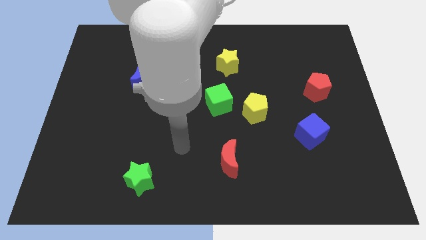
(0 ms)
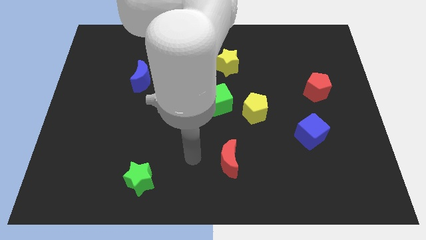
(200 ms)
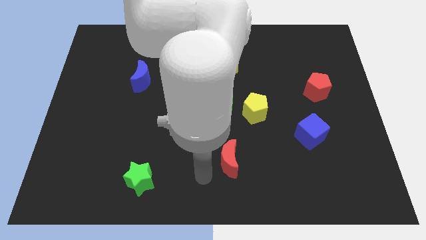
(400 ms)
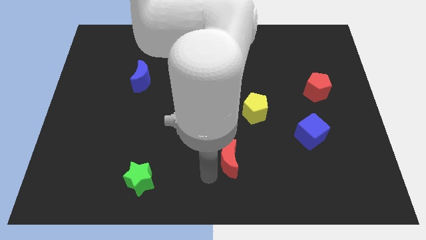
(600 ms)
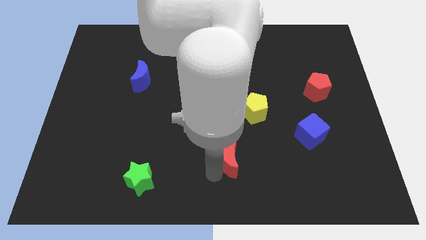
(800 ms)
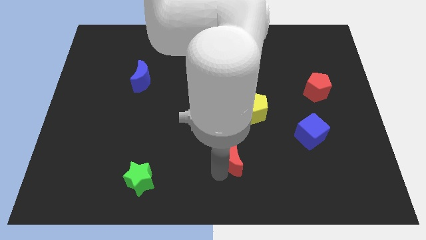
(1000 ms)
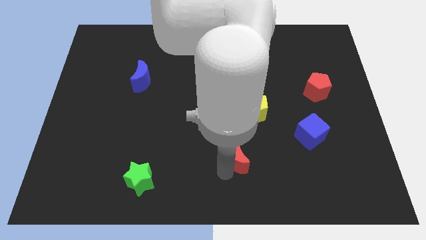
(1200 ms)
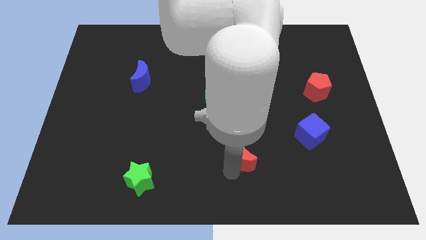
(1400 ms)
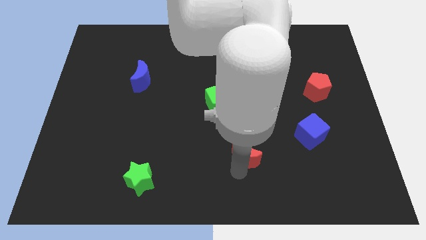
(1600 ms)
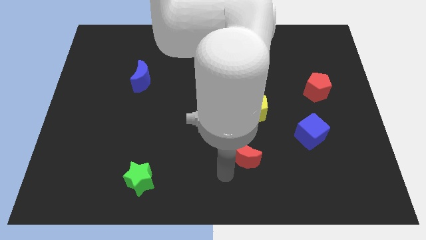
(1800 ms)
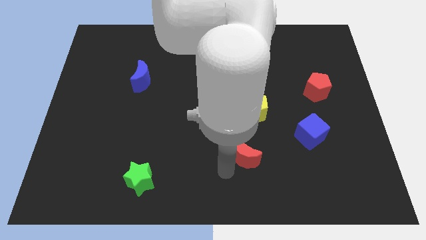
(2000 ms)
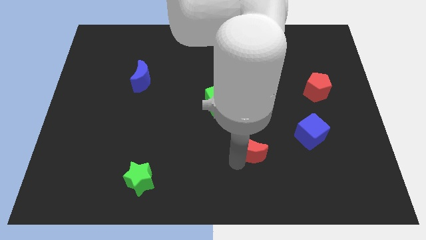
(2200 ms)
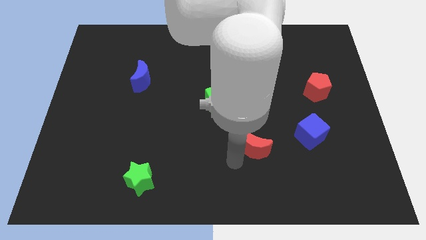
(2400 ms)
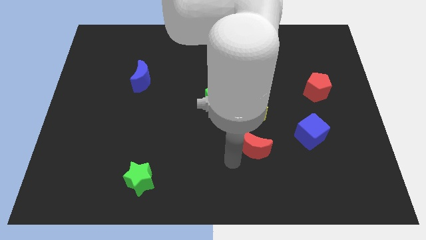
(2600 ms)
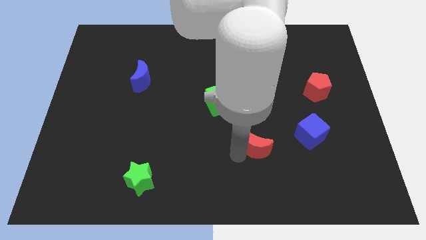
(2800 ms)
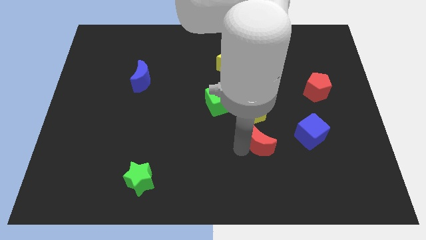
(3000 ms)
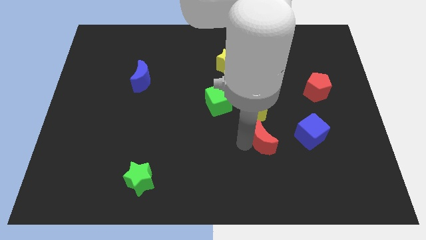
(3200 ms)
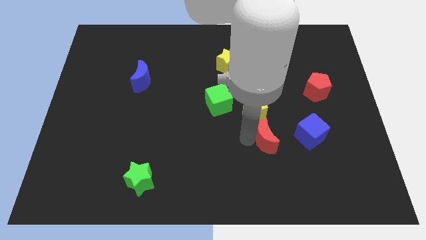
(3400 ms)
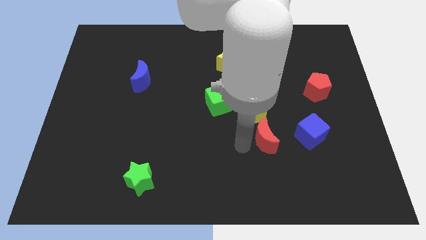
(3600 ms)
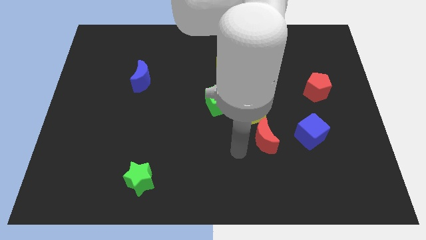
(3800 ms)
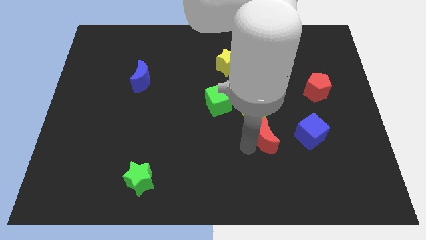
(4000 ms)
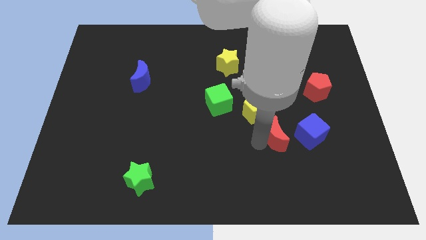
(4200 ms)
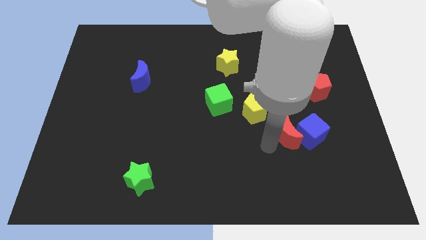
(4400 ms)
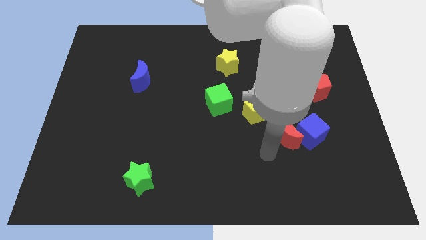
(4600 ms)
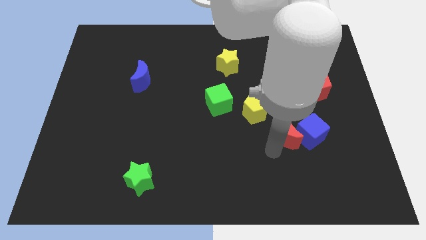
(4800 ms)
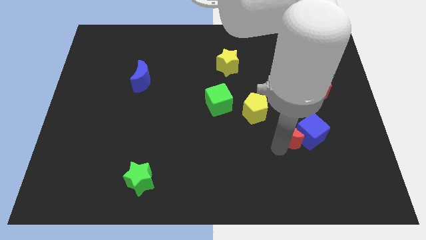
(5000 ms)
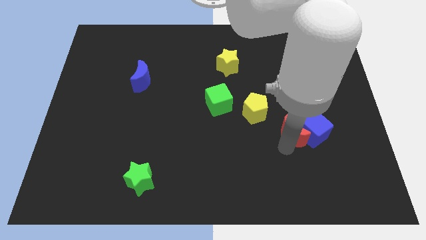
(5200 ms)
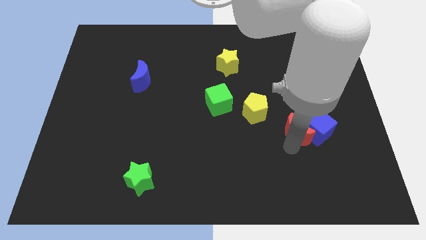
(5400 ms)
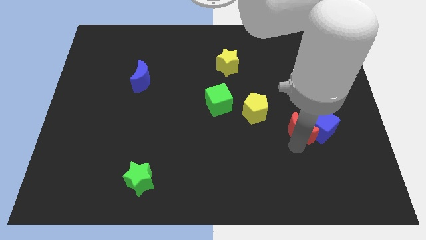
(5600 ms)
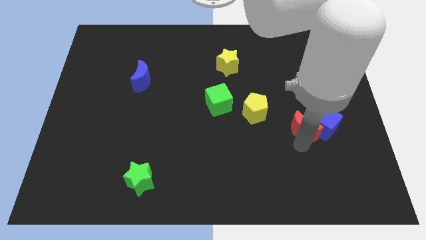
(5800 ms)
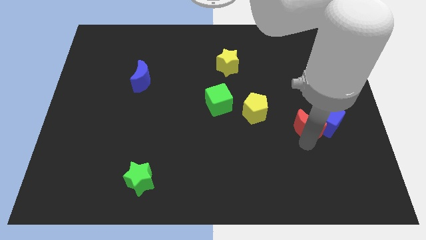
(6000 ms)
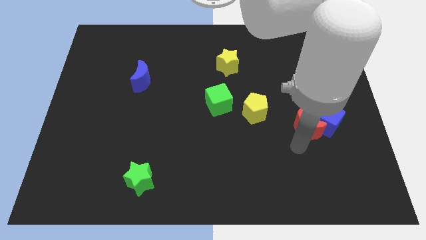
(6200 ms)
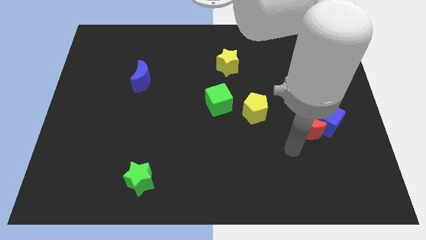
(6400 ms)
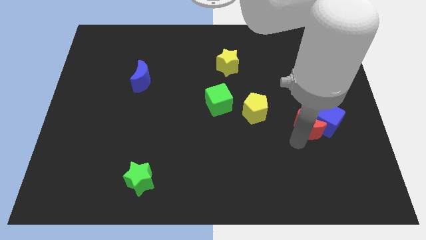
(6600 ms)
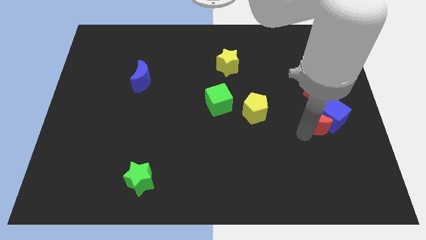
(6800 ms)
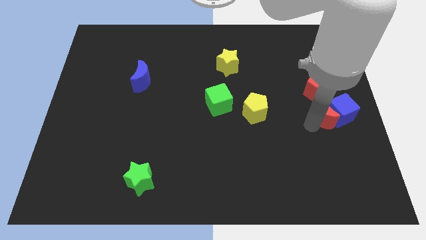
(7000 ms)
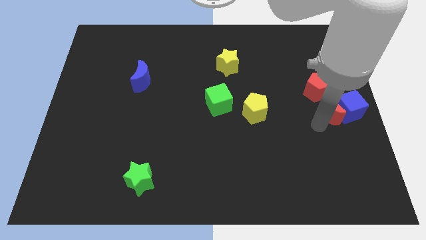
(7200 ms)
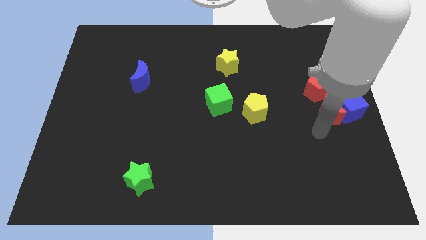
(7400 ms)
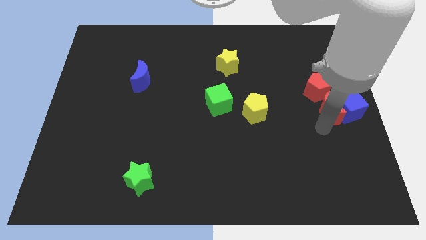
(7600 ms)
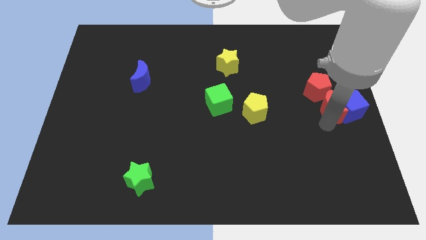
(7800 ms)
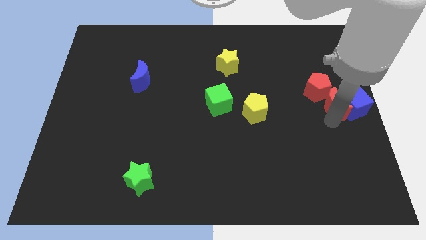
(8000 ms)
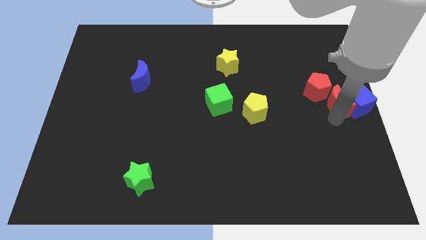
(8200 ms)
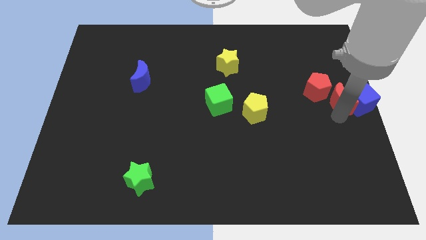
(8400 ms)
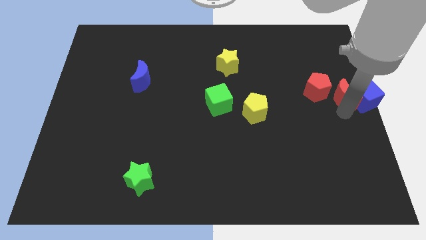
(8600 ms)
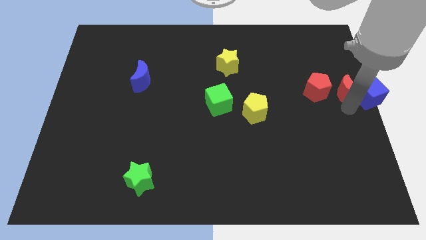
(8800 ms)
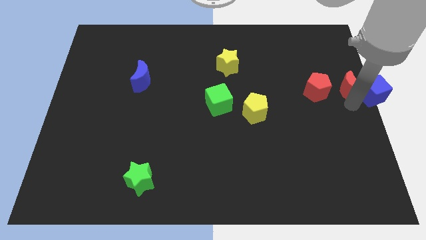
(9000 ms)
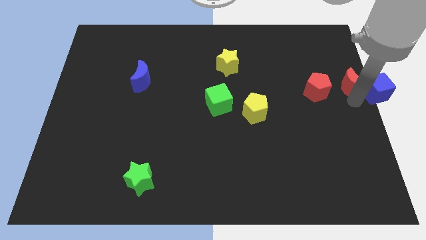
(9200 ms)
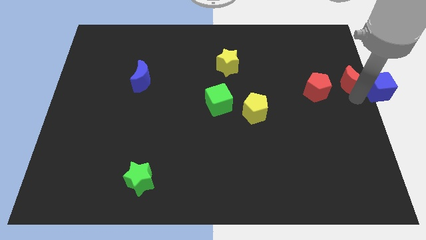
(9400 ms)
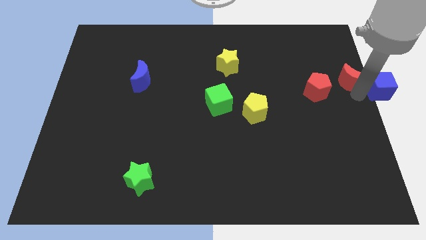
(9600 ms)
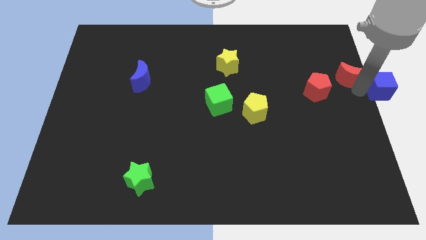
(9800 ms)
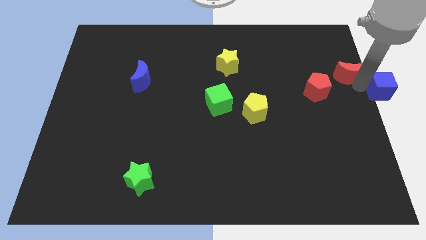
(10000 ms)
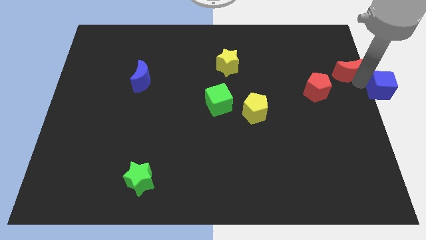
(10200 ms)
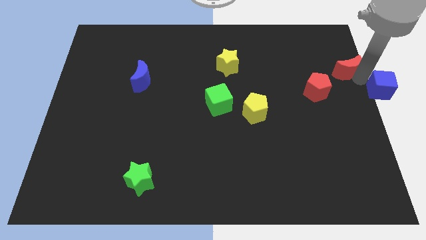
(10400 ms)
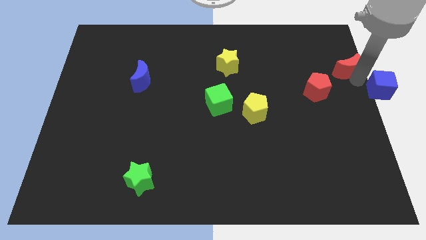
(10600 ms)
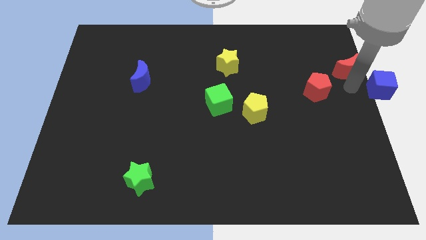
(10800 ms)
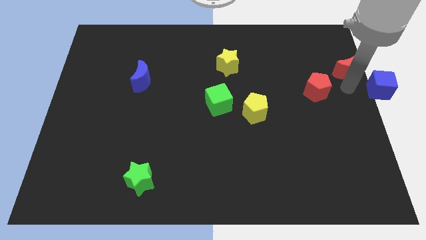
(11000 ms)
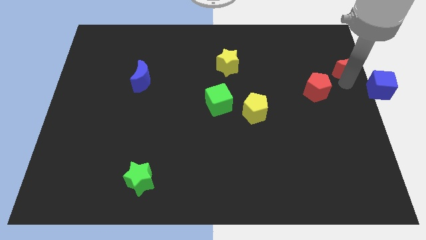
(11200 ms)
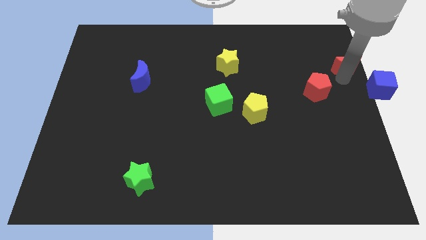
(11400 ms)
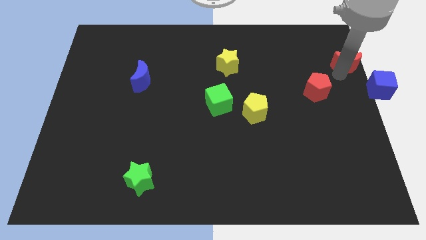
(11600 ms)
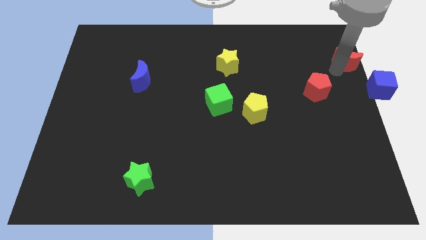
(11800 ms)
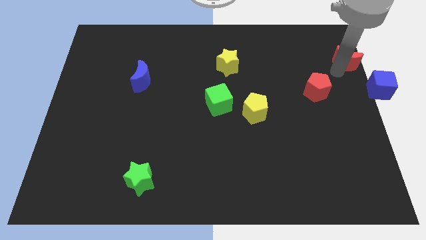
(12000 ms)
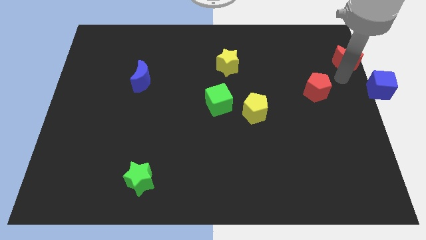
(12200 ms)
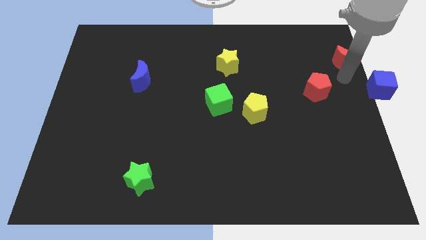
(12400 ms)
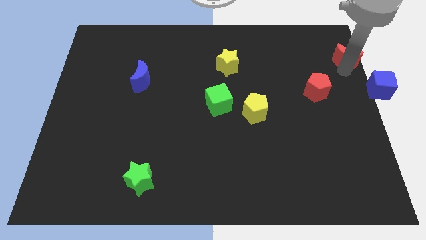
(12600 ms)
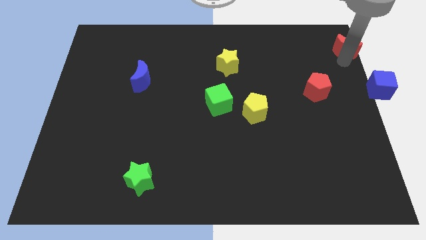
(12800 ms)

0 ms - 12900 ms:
slide the red moon to the upper right corner
